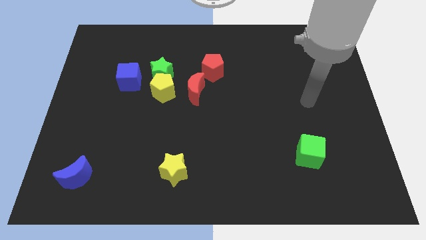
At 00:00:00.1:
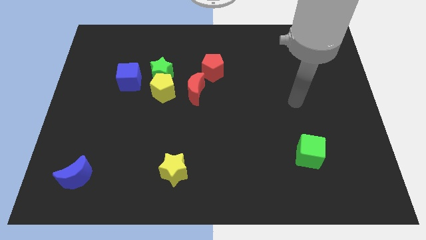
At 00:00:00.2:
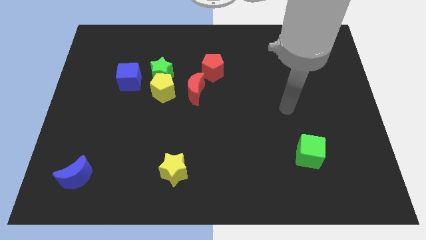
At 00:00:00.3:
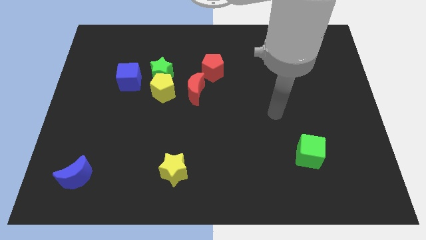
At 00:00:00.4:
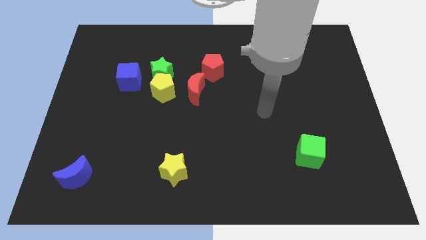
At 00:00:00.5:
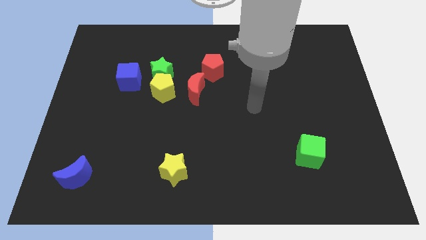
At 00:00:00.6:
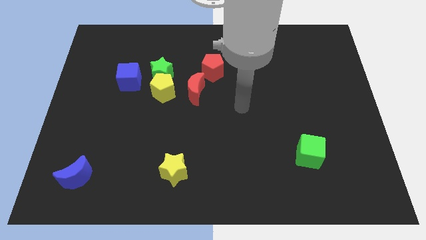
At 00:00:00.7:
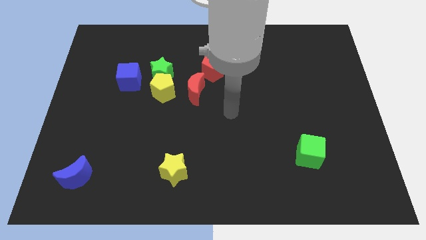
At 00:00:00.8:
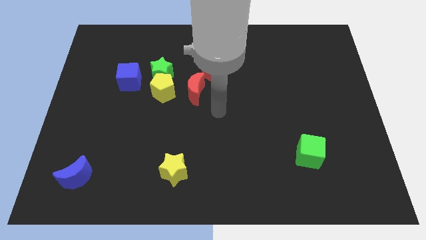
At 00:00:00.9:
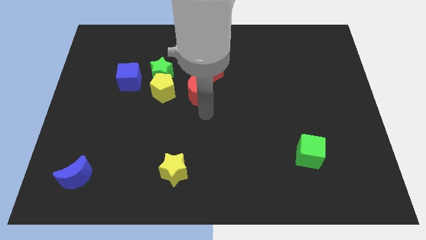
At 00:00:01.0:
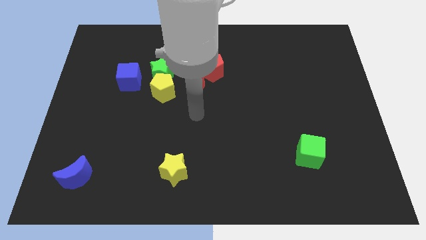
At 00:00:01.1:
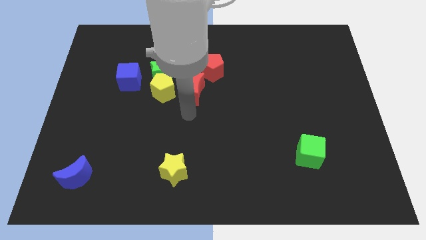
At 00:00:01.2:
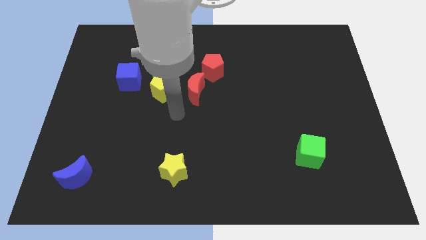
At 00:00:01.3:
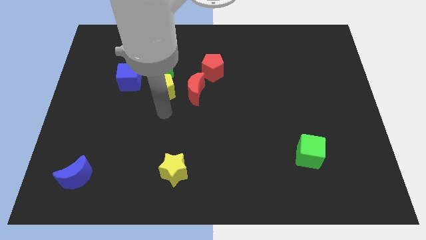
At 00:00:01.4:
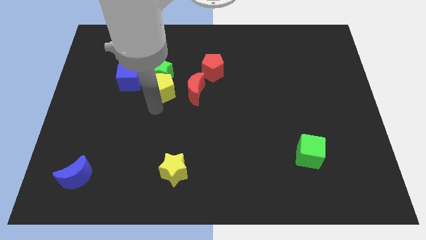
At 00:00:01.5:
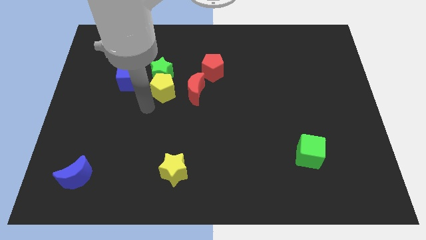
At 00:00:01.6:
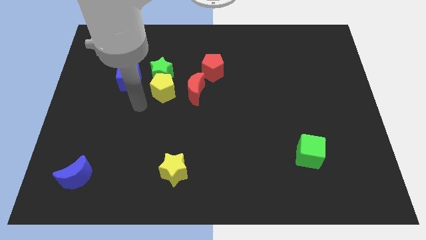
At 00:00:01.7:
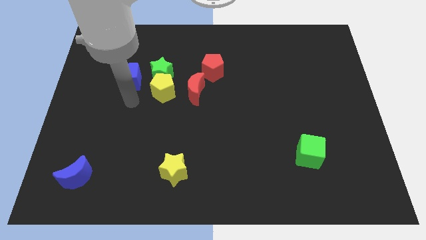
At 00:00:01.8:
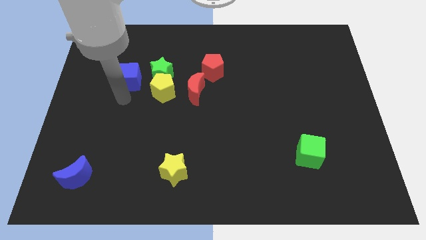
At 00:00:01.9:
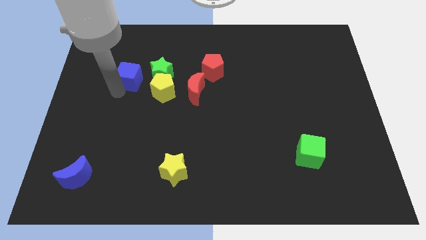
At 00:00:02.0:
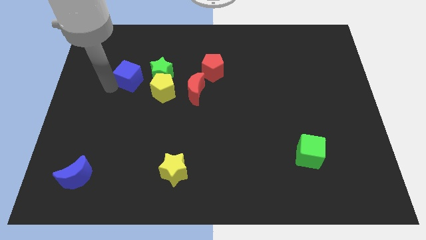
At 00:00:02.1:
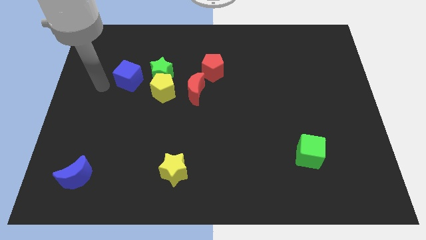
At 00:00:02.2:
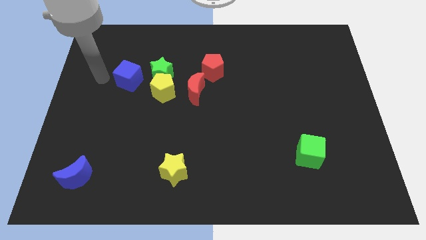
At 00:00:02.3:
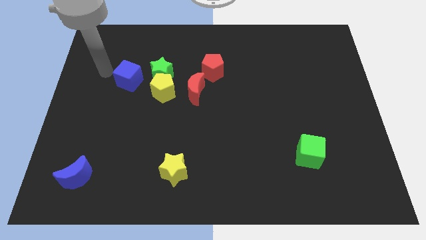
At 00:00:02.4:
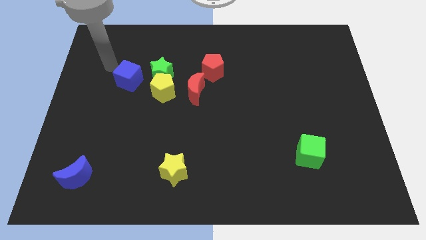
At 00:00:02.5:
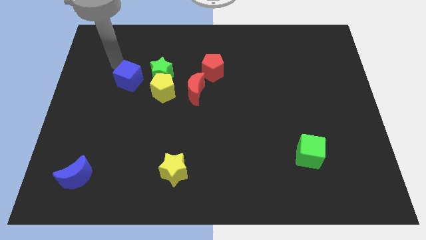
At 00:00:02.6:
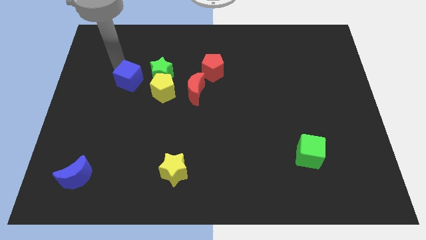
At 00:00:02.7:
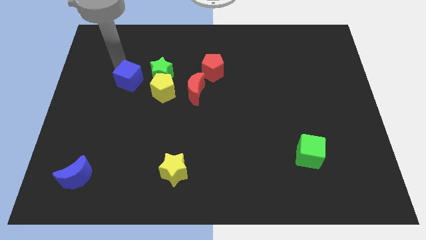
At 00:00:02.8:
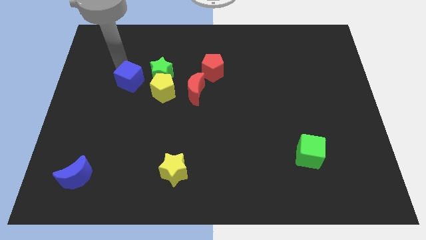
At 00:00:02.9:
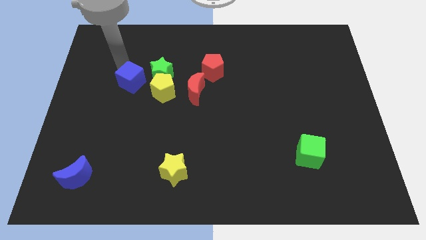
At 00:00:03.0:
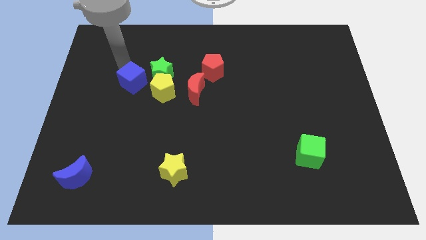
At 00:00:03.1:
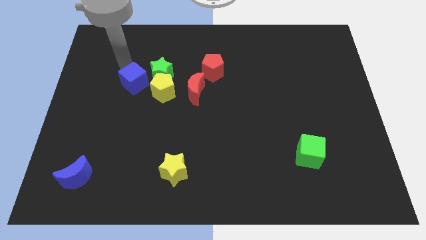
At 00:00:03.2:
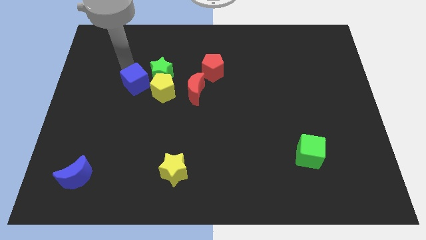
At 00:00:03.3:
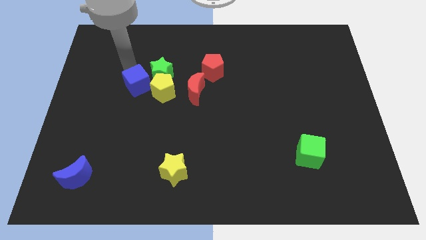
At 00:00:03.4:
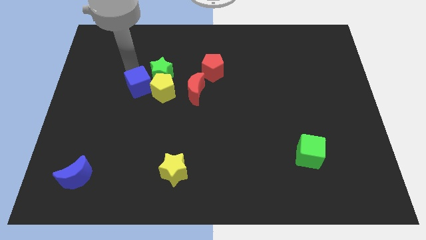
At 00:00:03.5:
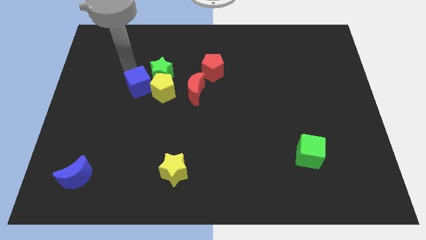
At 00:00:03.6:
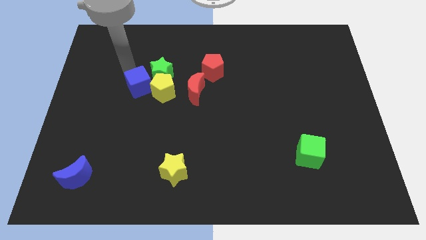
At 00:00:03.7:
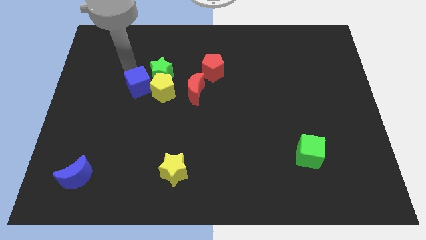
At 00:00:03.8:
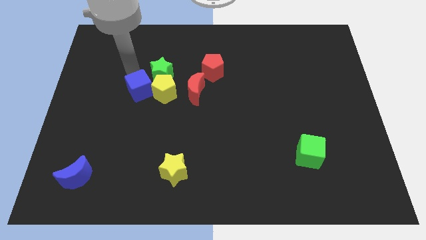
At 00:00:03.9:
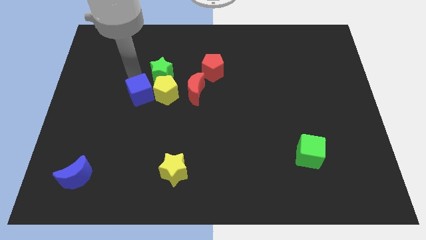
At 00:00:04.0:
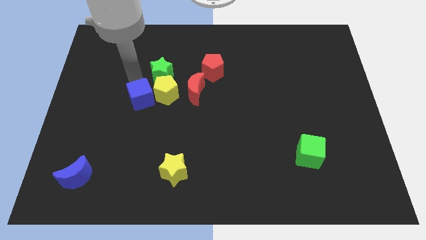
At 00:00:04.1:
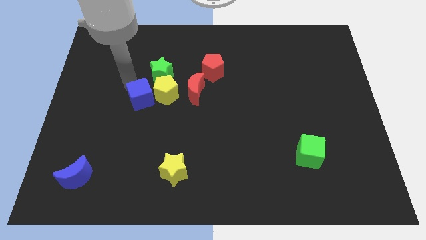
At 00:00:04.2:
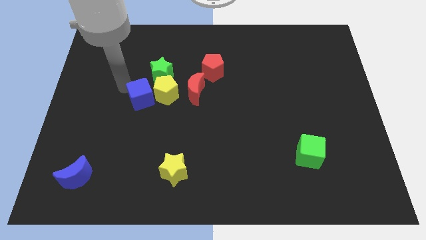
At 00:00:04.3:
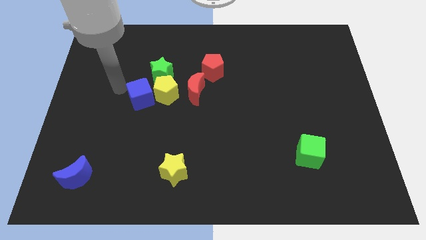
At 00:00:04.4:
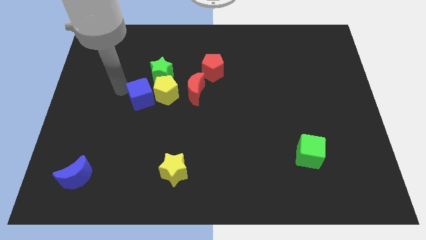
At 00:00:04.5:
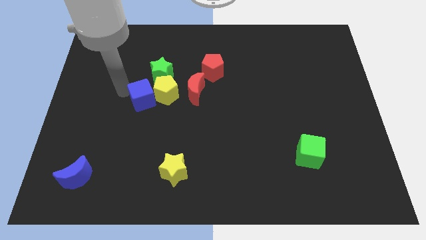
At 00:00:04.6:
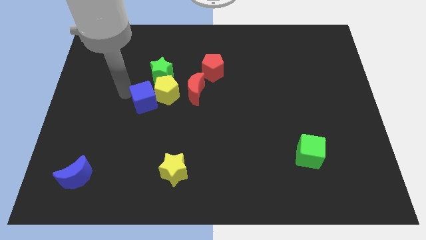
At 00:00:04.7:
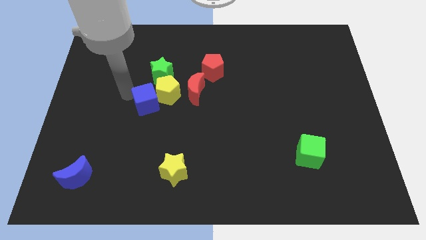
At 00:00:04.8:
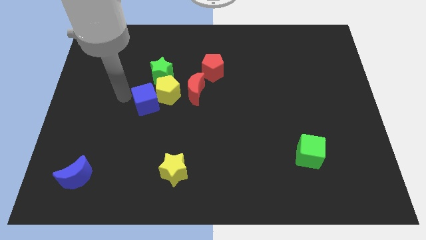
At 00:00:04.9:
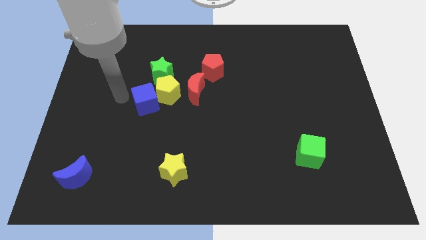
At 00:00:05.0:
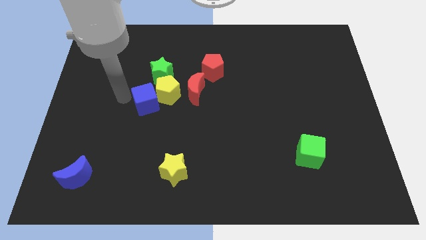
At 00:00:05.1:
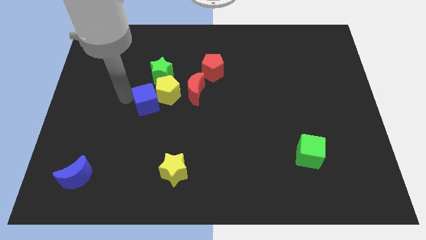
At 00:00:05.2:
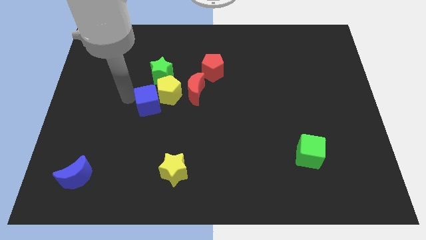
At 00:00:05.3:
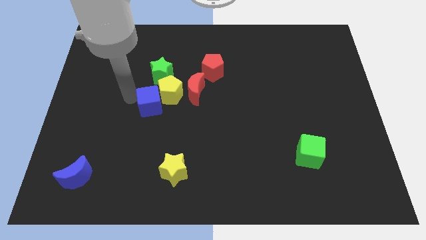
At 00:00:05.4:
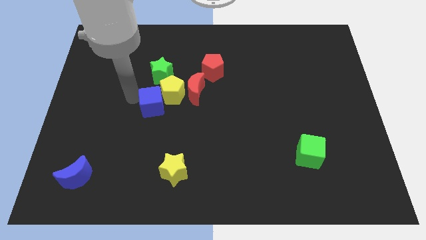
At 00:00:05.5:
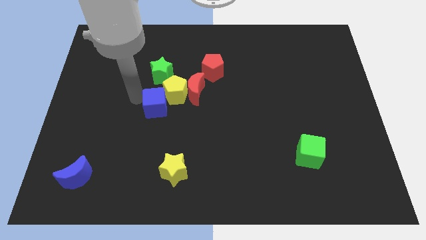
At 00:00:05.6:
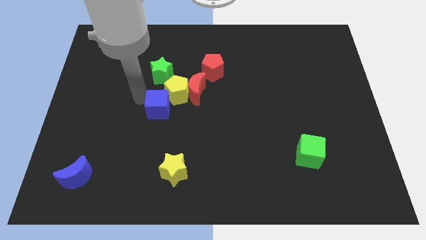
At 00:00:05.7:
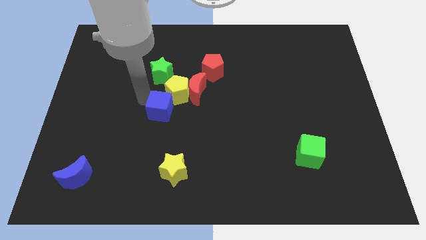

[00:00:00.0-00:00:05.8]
put the blue cube to the center
